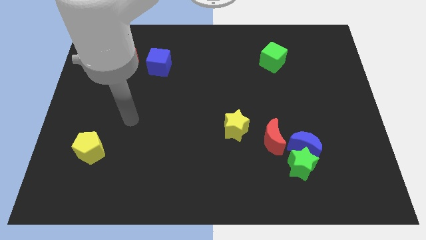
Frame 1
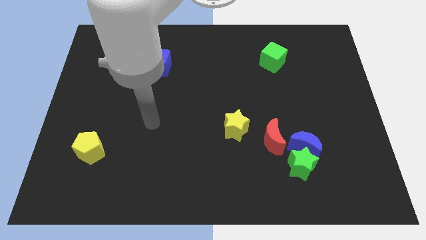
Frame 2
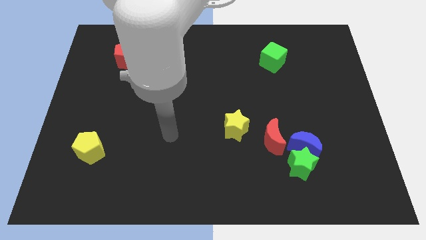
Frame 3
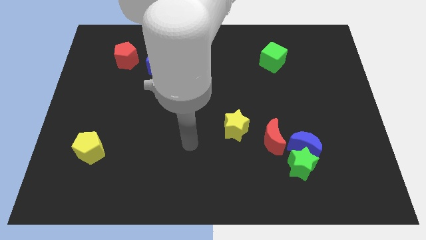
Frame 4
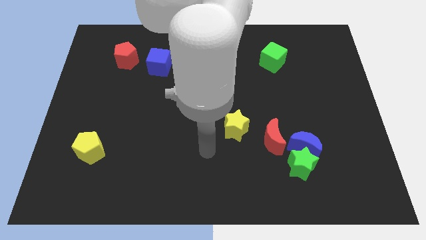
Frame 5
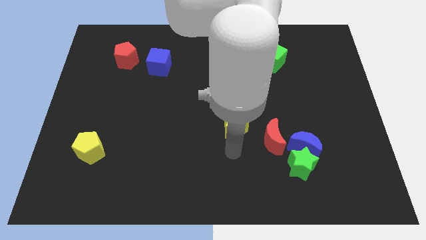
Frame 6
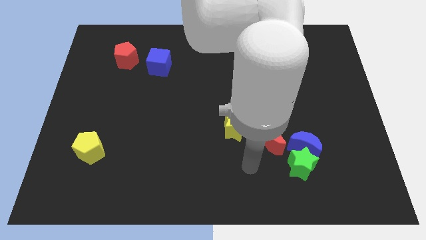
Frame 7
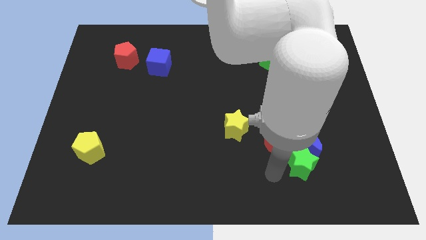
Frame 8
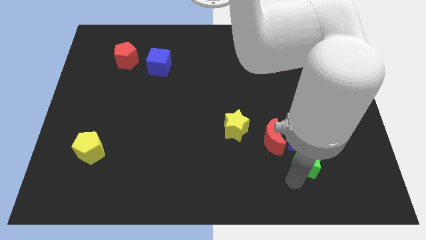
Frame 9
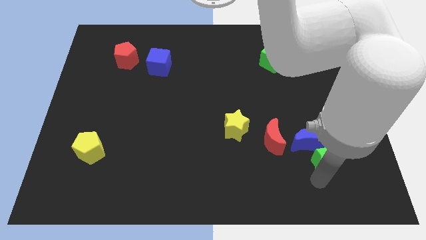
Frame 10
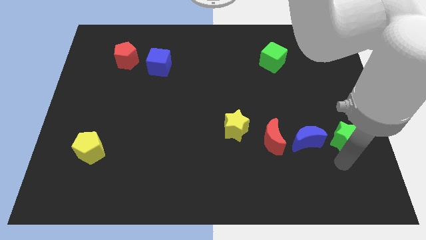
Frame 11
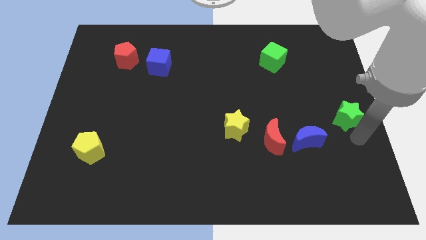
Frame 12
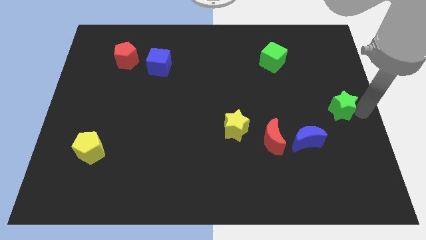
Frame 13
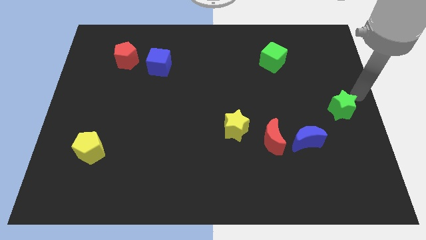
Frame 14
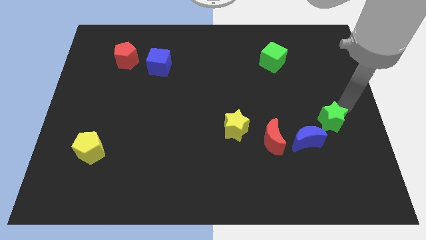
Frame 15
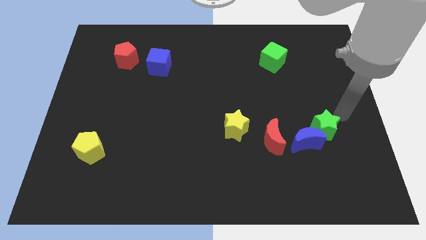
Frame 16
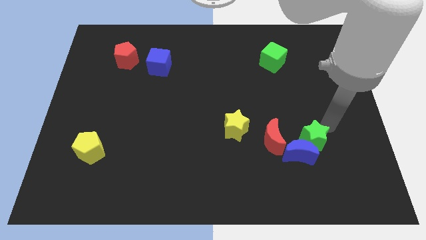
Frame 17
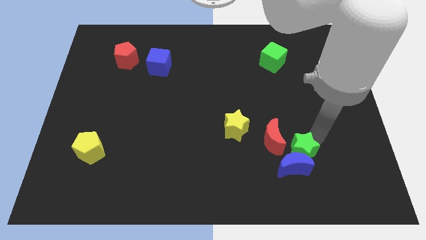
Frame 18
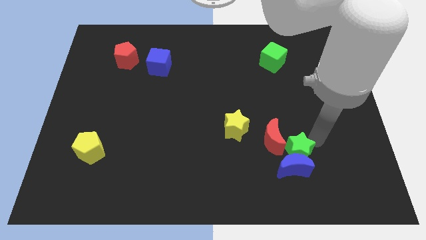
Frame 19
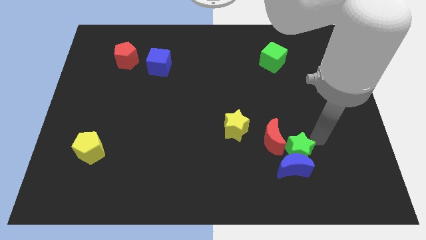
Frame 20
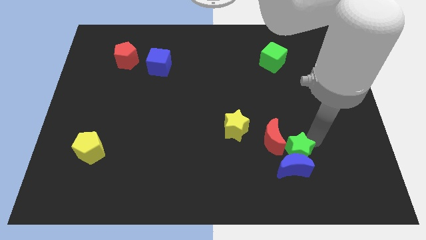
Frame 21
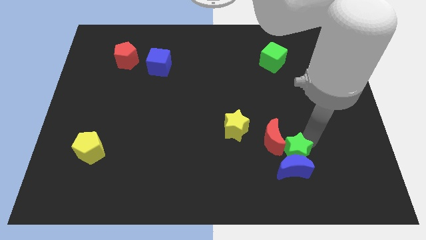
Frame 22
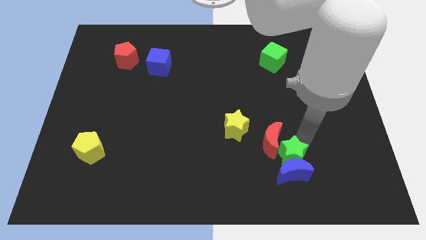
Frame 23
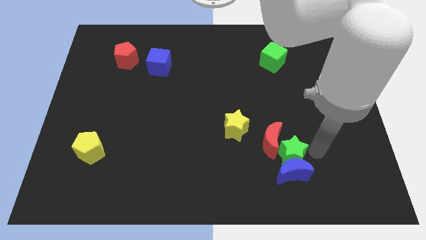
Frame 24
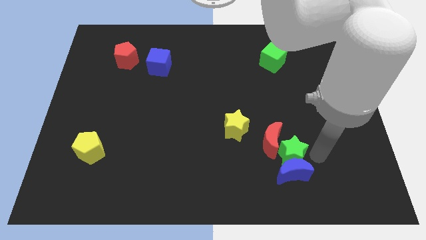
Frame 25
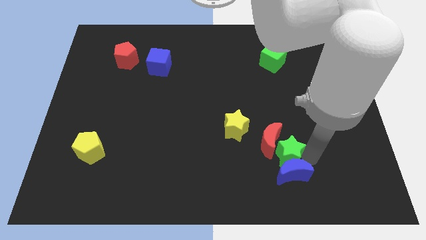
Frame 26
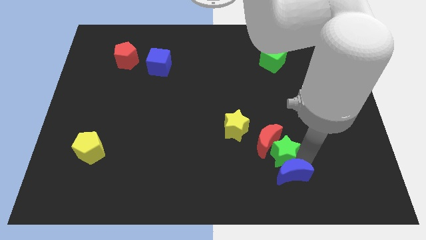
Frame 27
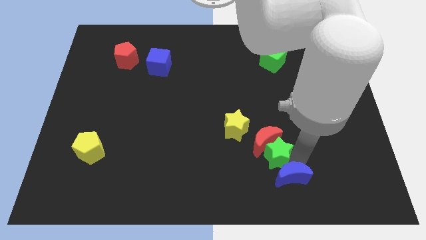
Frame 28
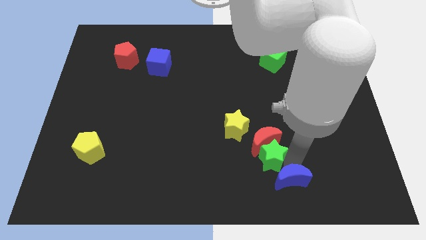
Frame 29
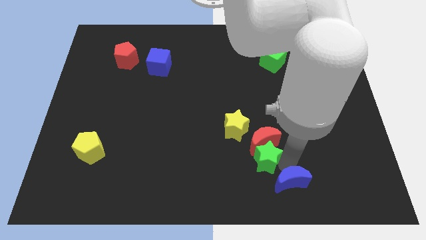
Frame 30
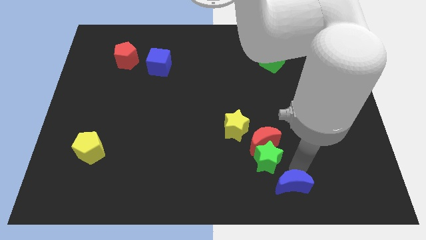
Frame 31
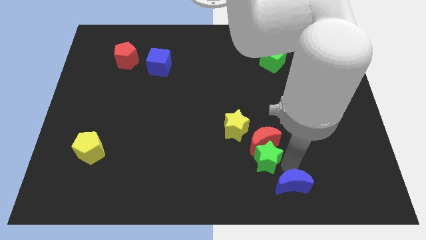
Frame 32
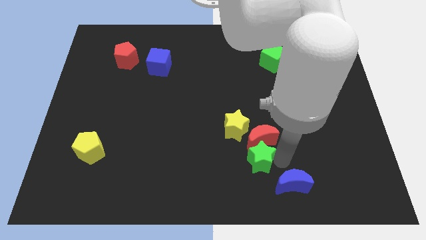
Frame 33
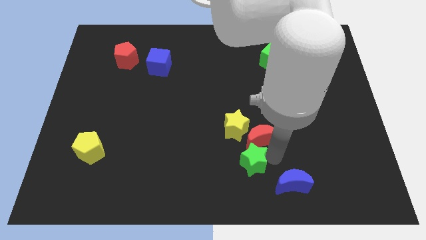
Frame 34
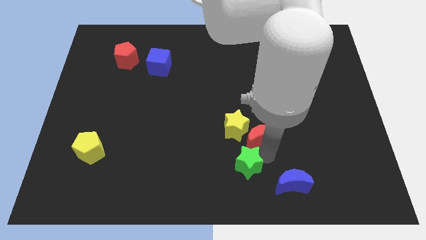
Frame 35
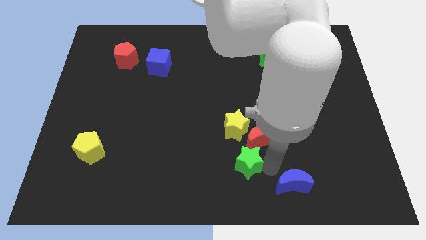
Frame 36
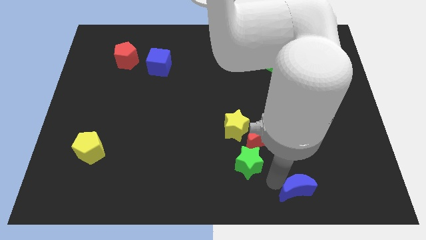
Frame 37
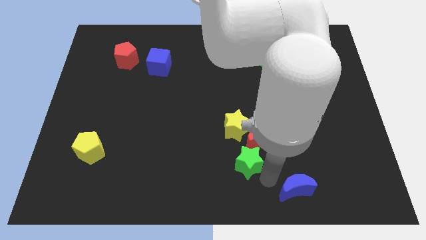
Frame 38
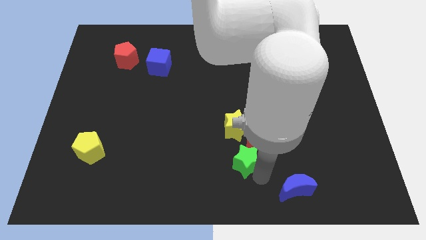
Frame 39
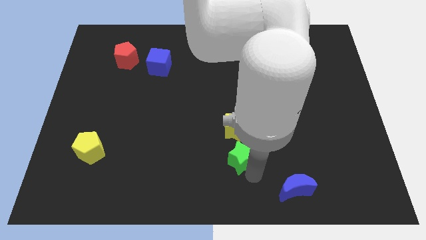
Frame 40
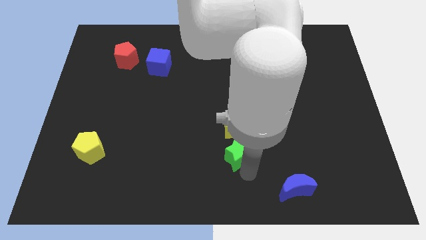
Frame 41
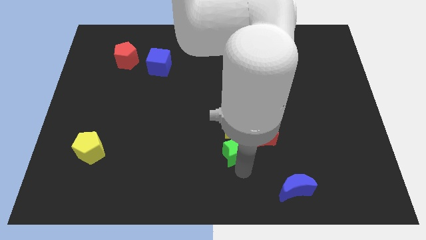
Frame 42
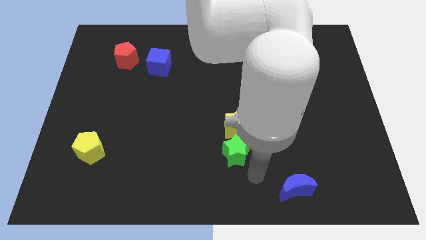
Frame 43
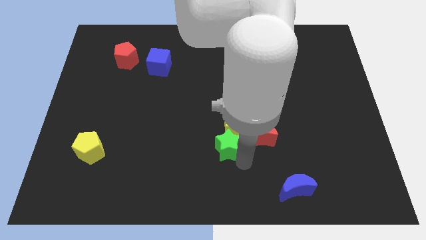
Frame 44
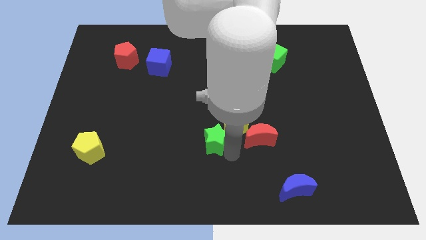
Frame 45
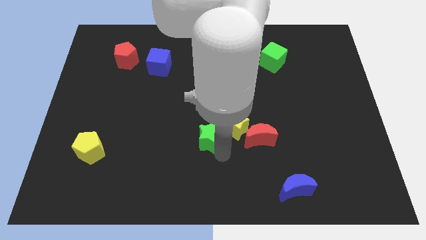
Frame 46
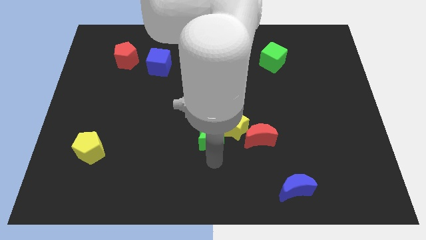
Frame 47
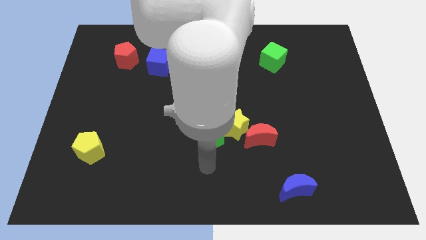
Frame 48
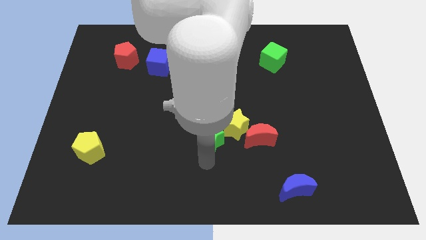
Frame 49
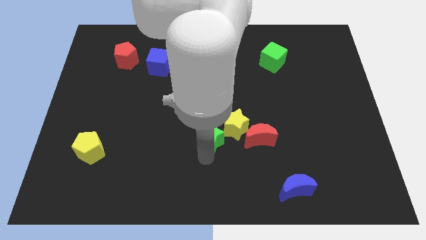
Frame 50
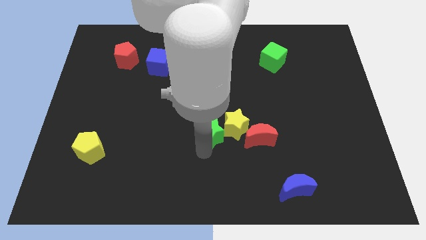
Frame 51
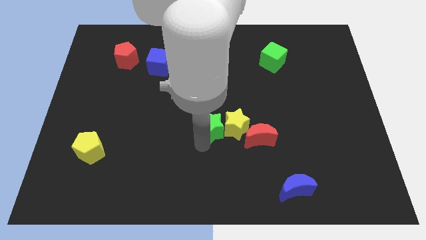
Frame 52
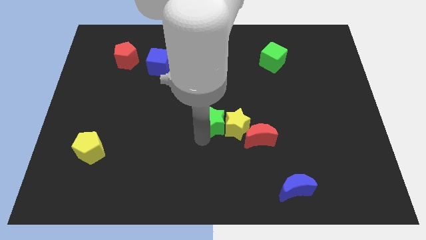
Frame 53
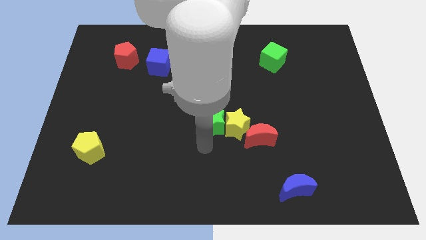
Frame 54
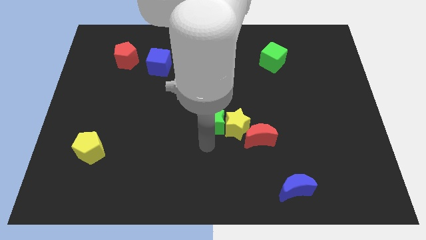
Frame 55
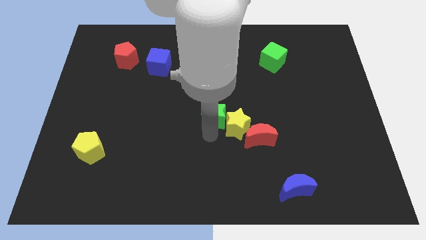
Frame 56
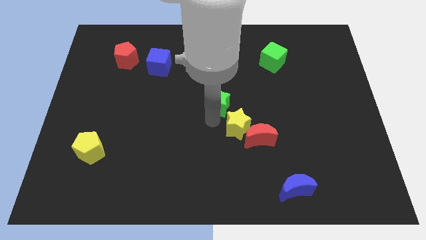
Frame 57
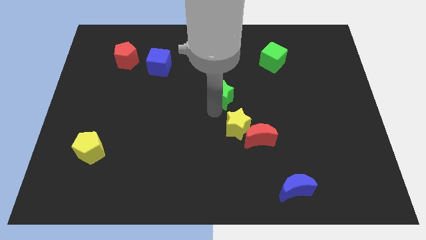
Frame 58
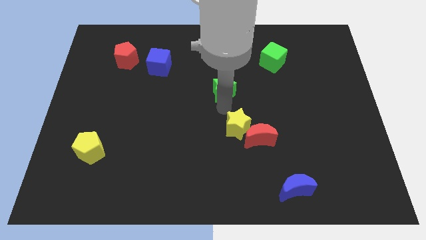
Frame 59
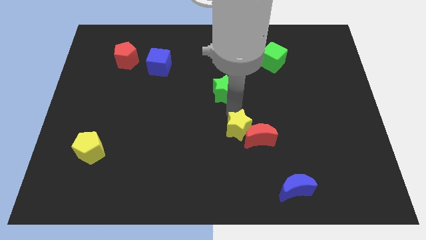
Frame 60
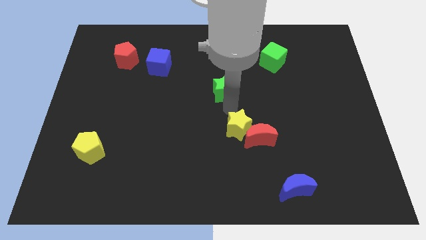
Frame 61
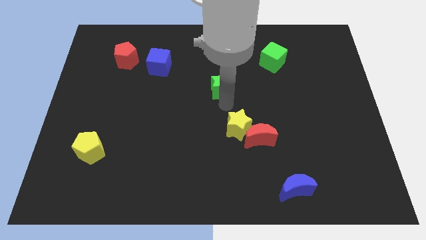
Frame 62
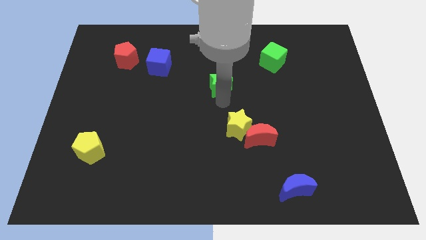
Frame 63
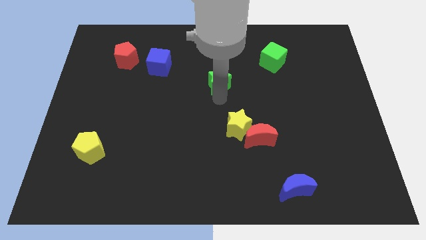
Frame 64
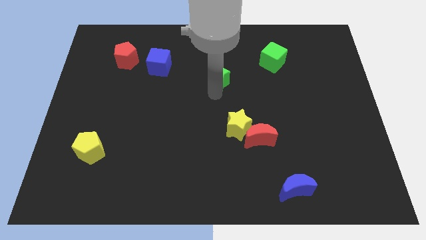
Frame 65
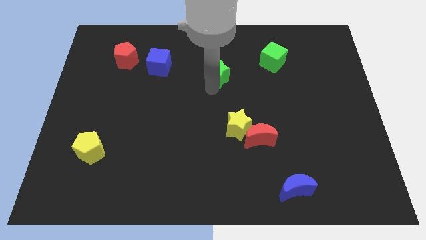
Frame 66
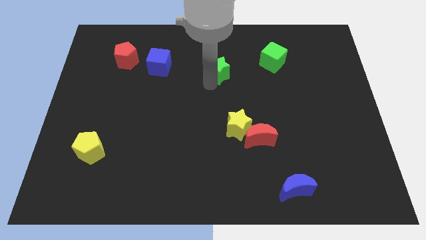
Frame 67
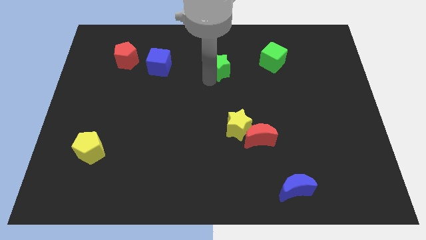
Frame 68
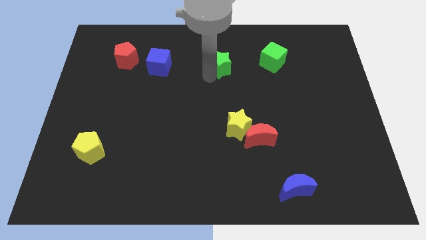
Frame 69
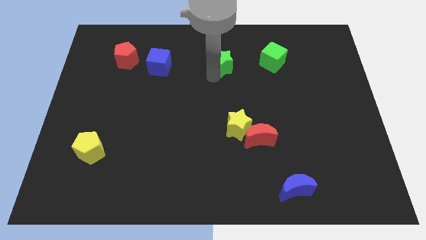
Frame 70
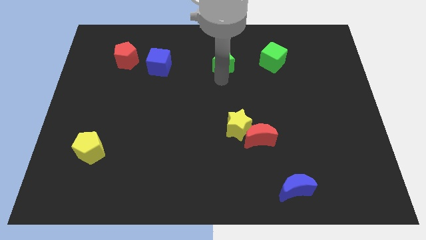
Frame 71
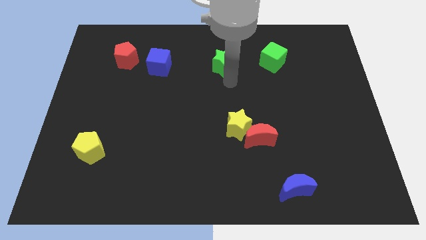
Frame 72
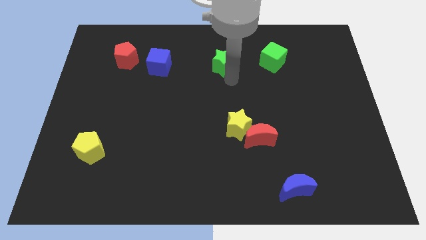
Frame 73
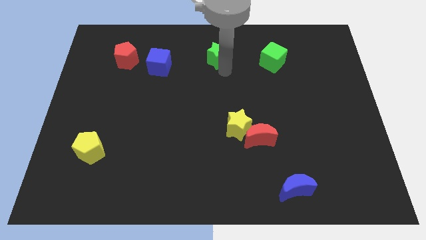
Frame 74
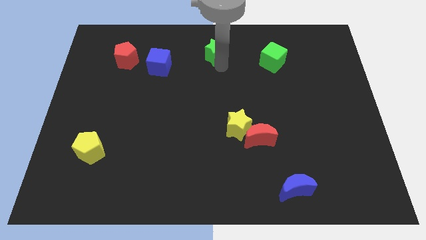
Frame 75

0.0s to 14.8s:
push the green star to the top
